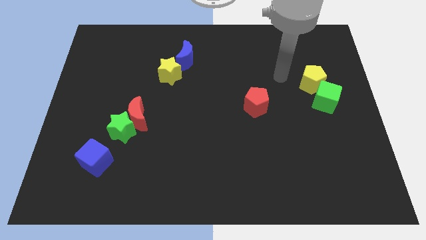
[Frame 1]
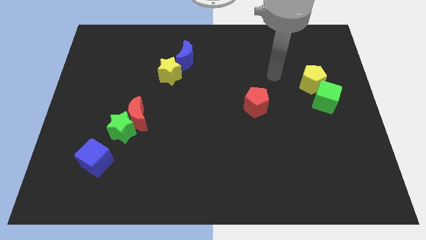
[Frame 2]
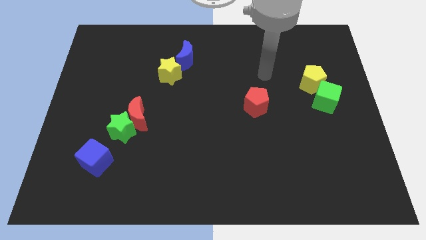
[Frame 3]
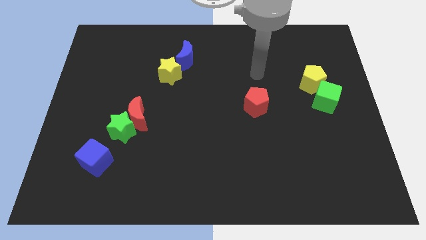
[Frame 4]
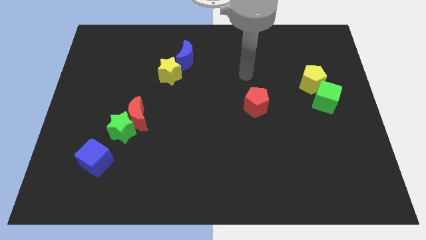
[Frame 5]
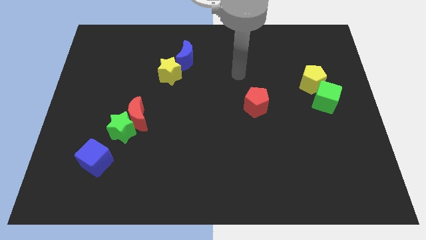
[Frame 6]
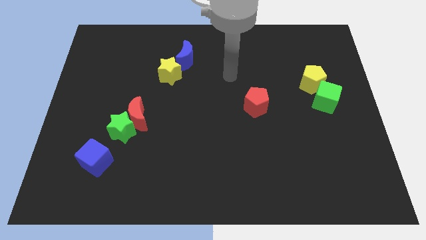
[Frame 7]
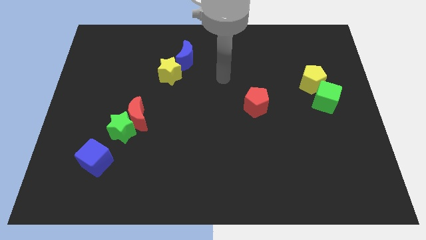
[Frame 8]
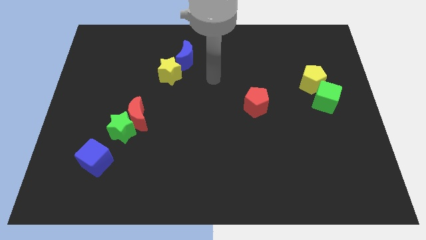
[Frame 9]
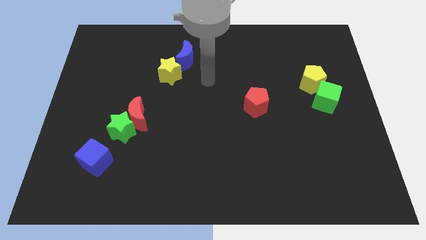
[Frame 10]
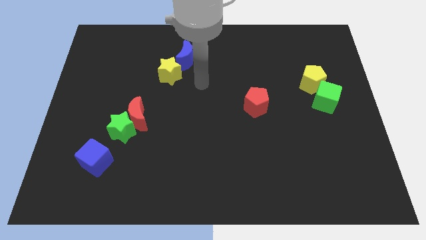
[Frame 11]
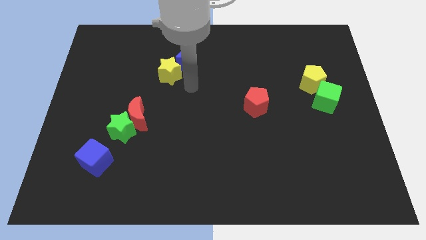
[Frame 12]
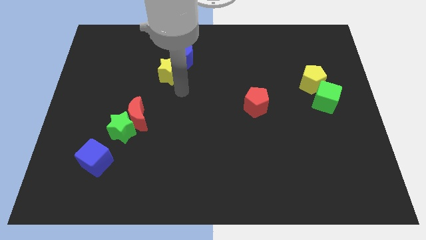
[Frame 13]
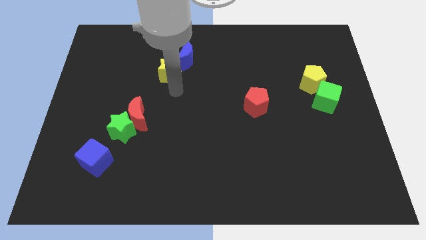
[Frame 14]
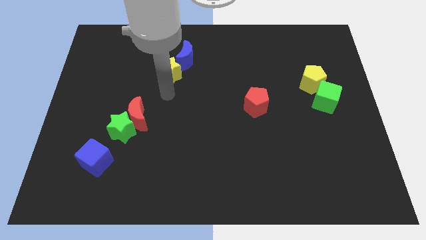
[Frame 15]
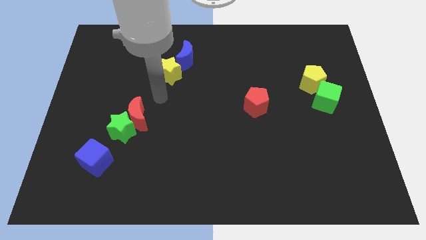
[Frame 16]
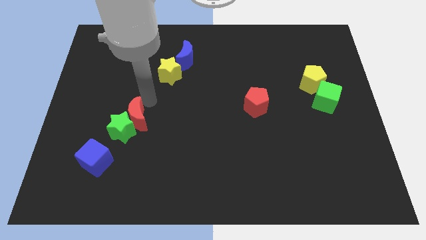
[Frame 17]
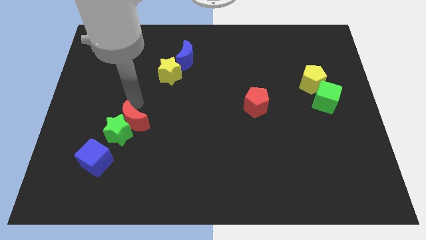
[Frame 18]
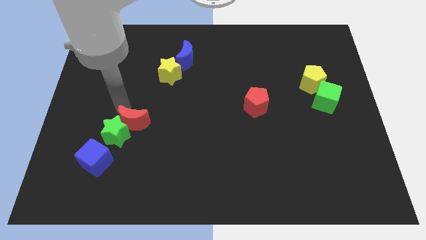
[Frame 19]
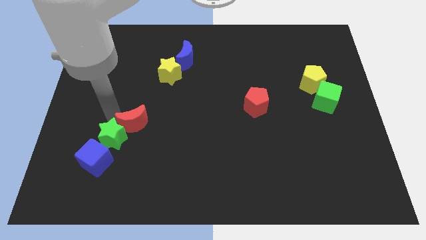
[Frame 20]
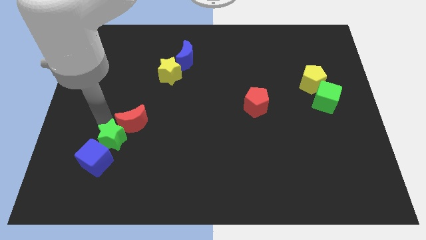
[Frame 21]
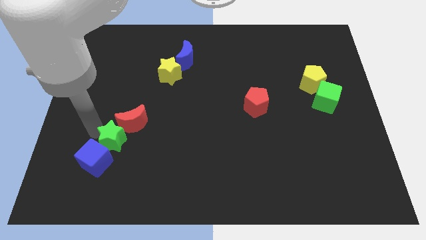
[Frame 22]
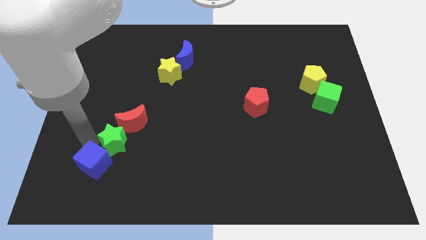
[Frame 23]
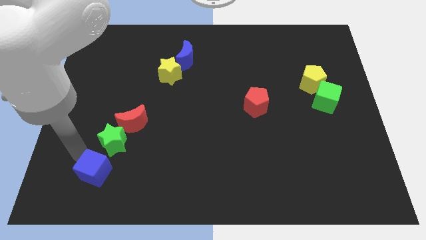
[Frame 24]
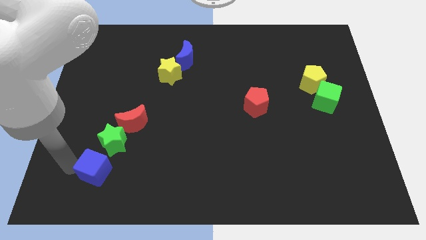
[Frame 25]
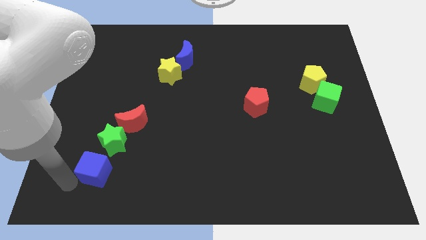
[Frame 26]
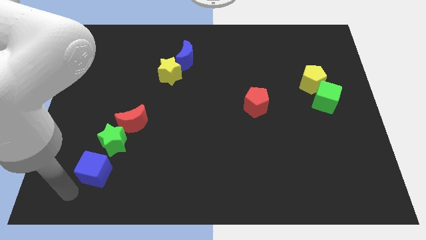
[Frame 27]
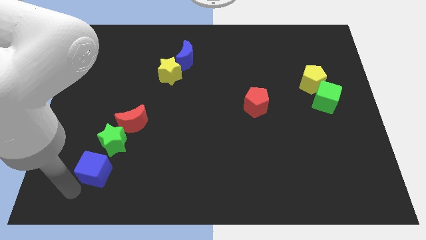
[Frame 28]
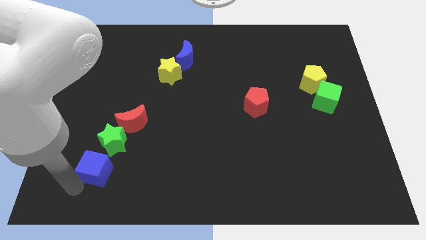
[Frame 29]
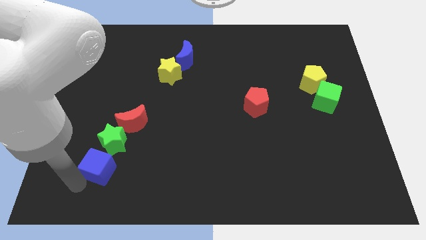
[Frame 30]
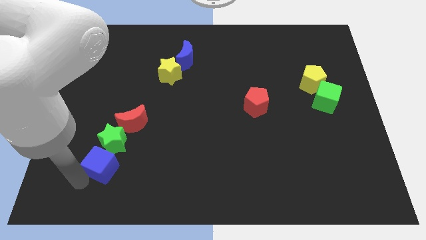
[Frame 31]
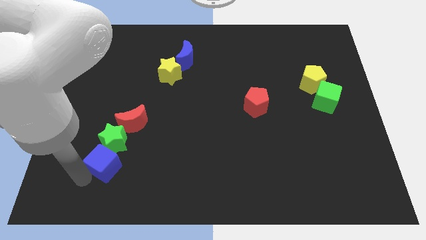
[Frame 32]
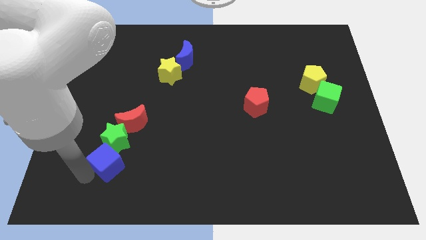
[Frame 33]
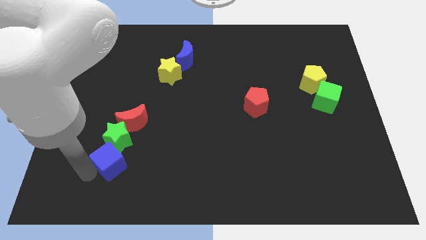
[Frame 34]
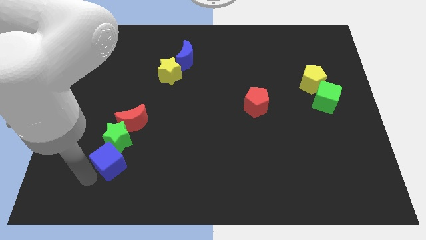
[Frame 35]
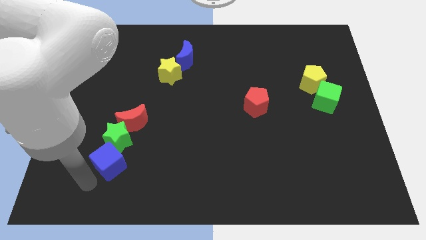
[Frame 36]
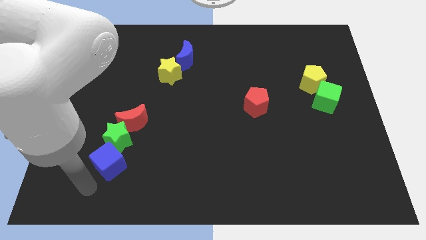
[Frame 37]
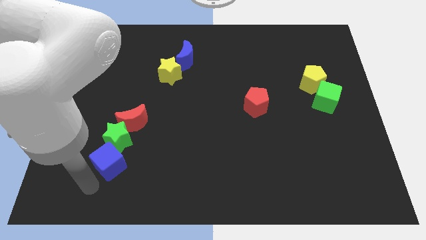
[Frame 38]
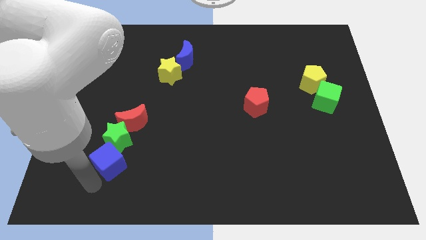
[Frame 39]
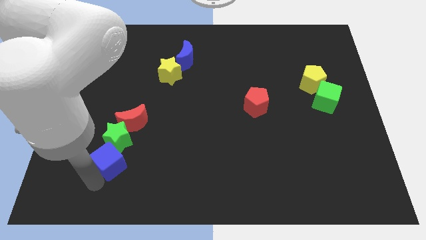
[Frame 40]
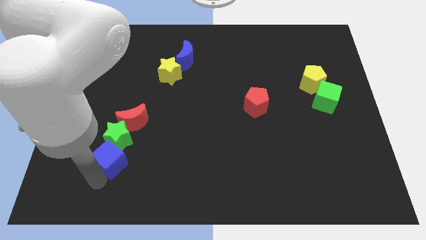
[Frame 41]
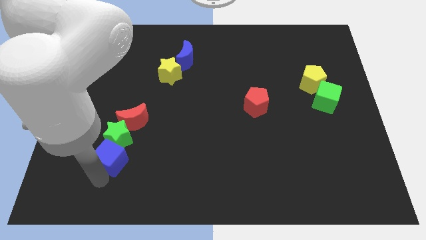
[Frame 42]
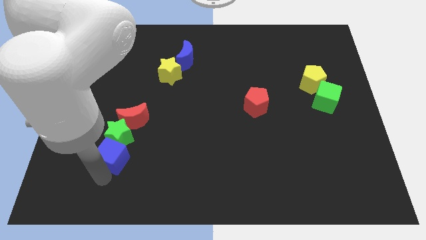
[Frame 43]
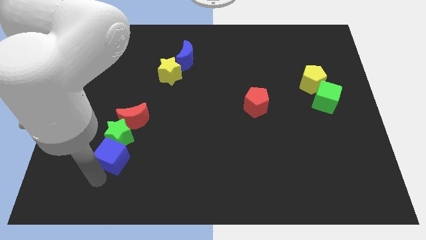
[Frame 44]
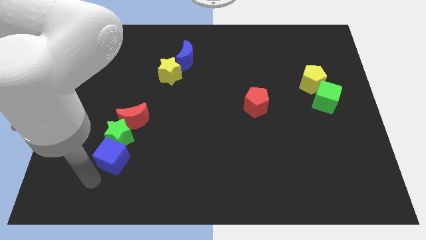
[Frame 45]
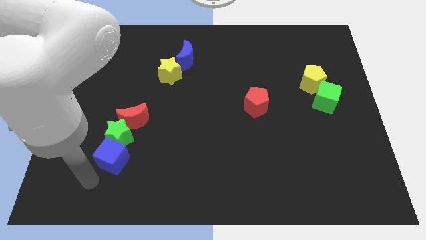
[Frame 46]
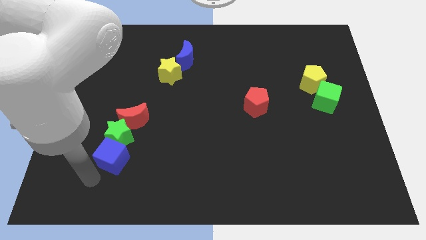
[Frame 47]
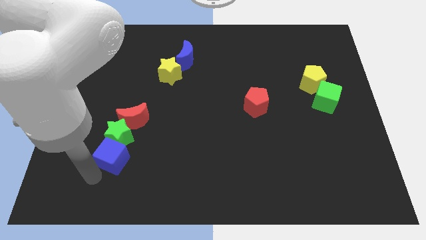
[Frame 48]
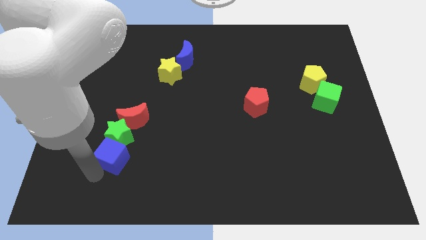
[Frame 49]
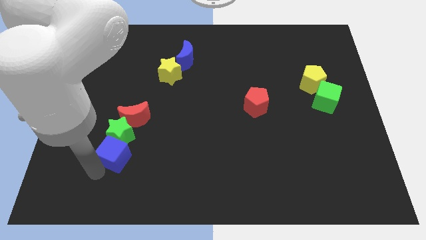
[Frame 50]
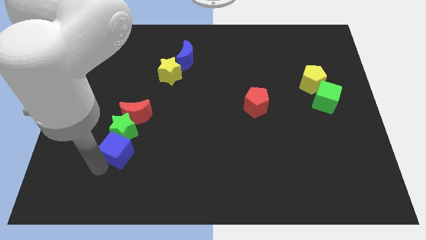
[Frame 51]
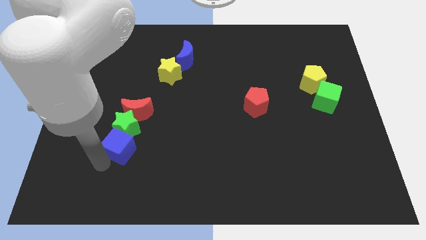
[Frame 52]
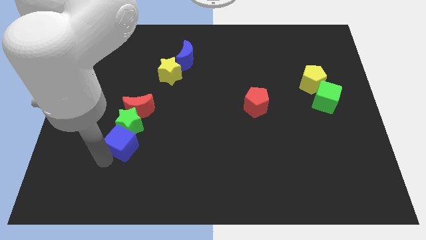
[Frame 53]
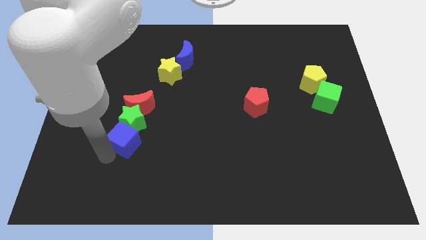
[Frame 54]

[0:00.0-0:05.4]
push the blue cube upwards and to the right somewhat

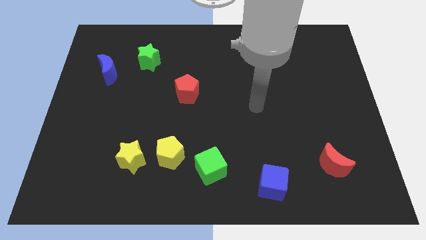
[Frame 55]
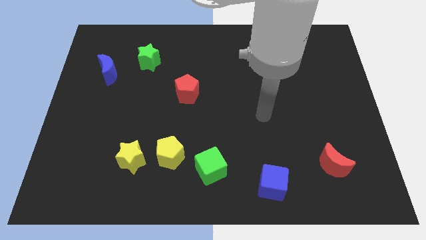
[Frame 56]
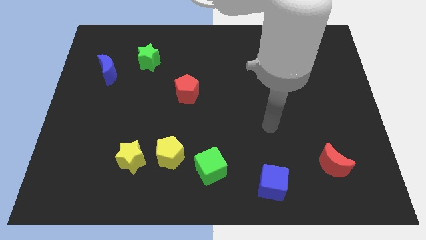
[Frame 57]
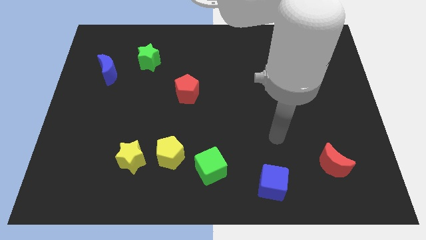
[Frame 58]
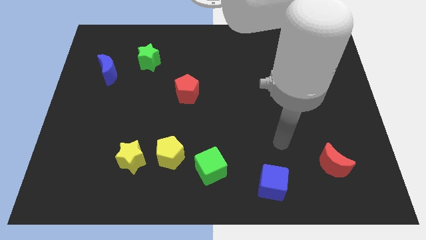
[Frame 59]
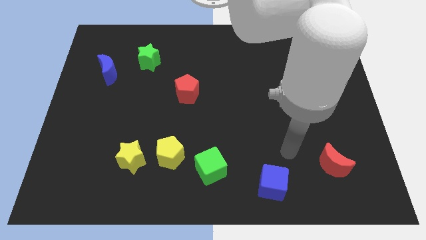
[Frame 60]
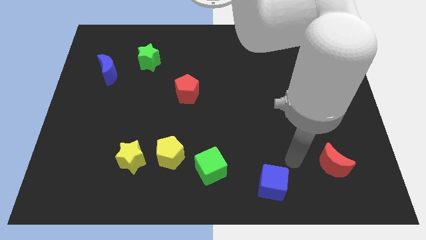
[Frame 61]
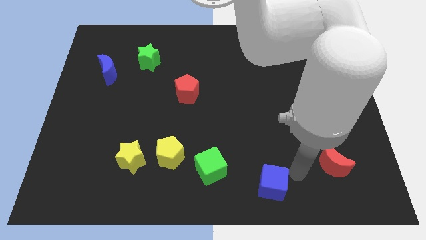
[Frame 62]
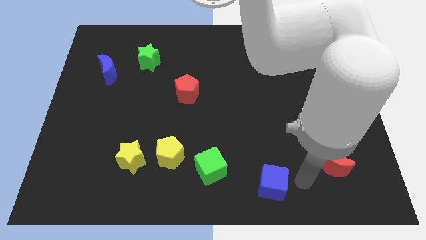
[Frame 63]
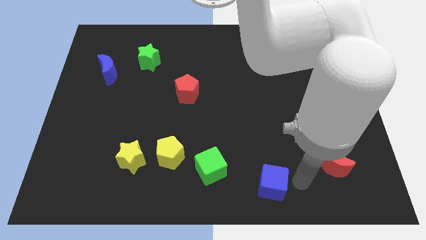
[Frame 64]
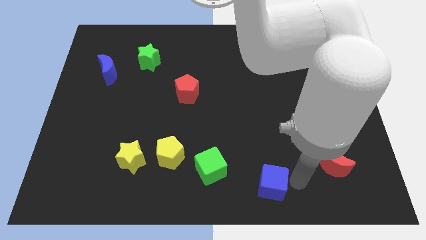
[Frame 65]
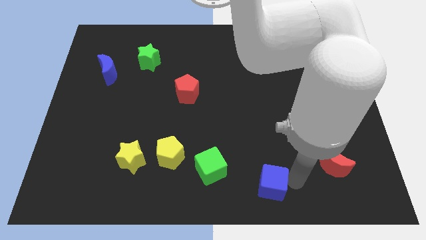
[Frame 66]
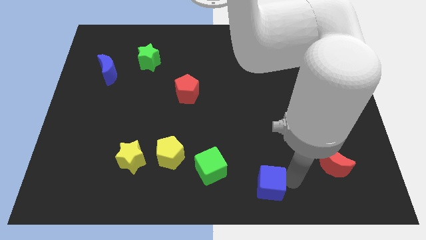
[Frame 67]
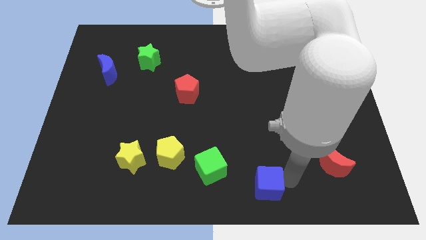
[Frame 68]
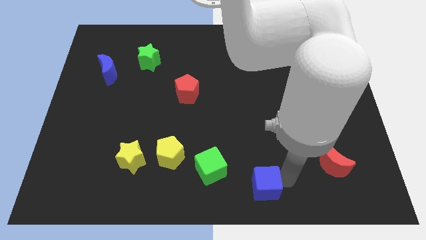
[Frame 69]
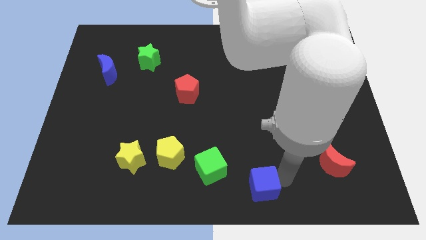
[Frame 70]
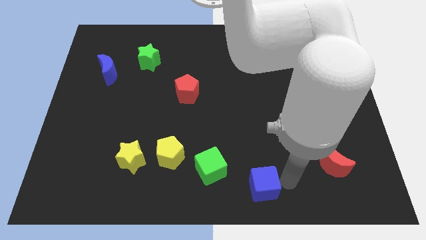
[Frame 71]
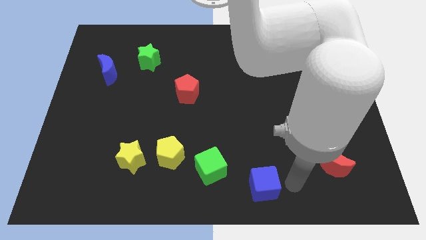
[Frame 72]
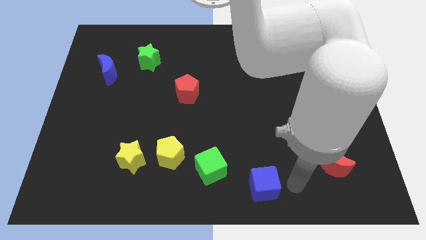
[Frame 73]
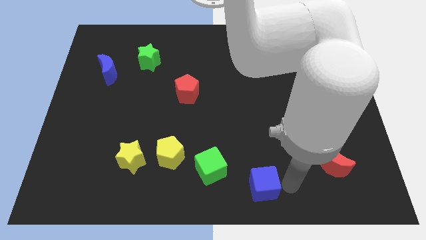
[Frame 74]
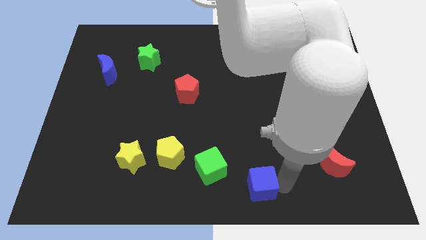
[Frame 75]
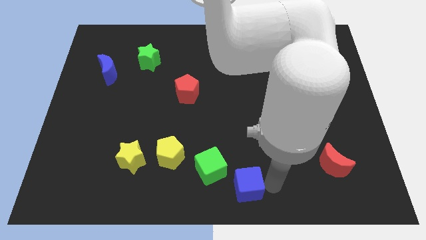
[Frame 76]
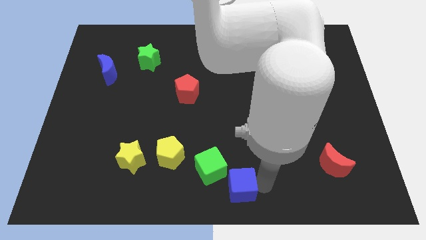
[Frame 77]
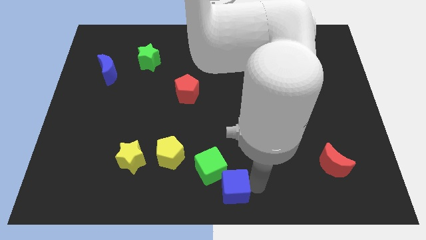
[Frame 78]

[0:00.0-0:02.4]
slightly slide the blue cube left
